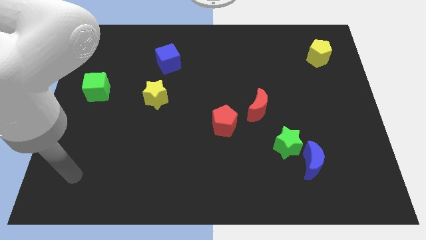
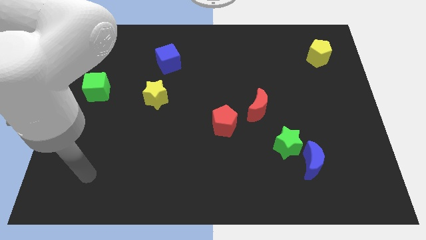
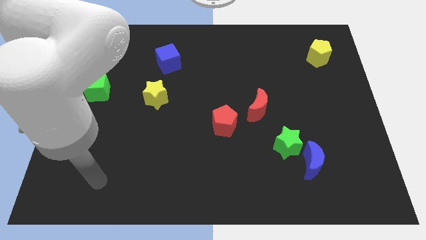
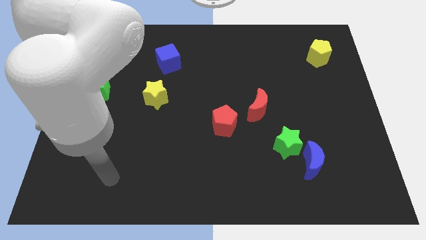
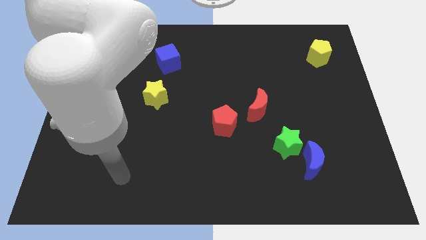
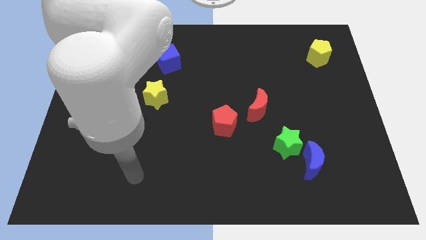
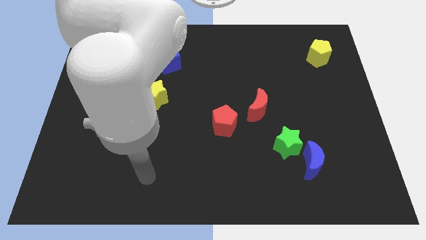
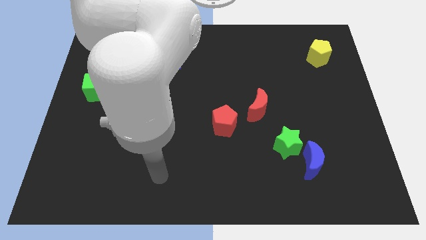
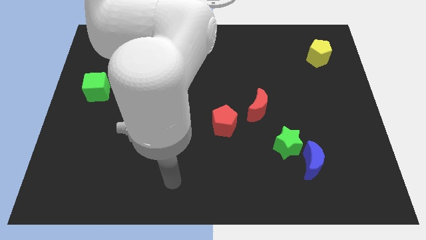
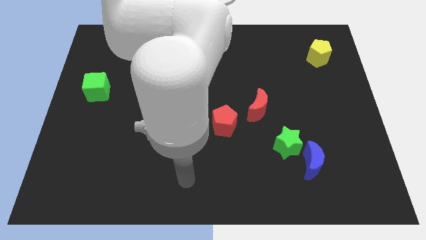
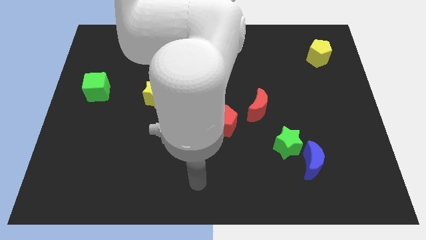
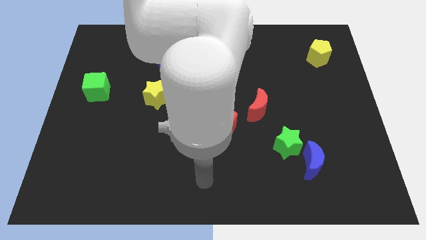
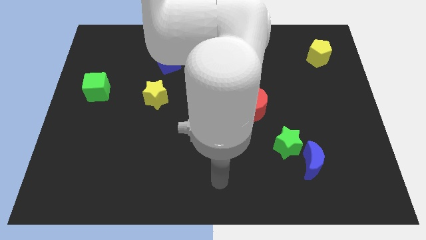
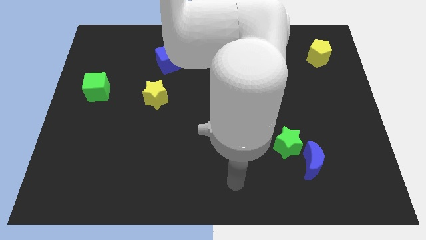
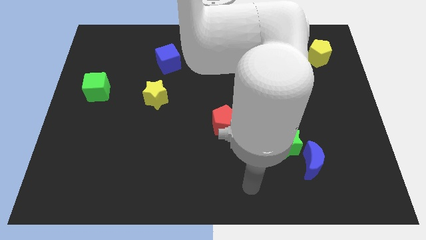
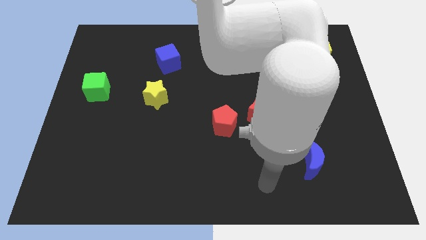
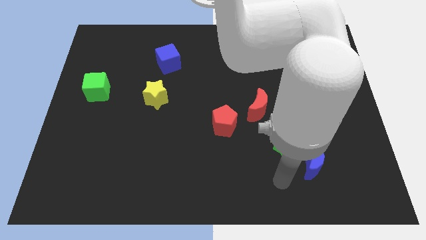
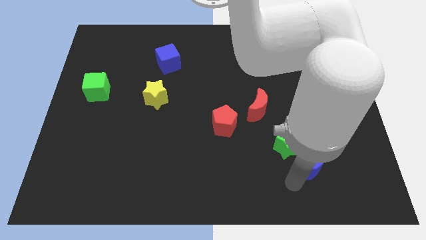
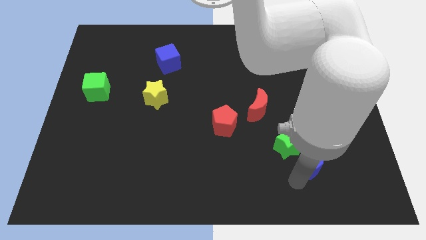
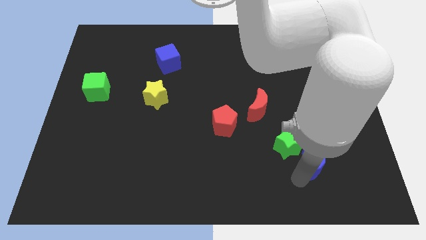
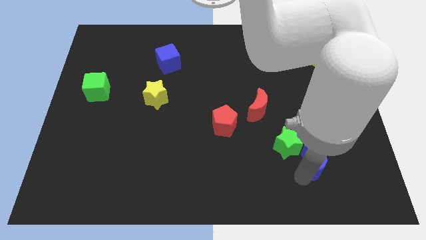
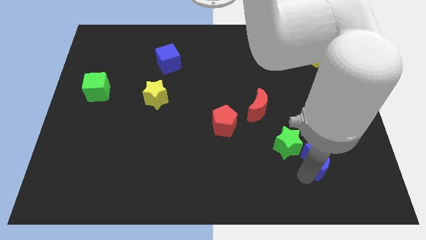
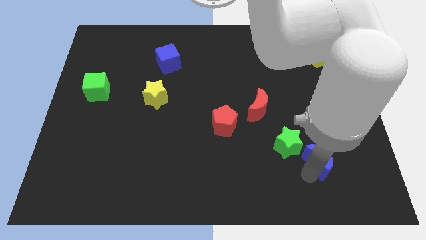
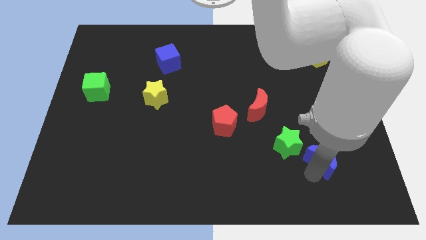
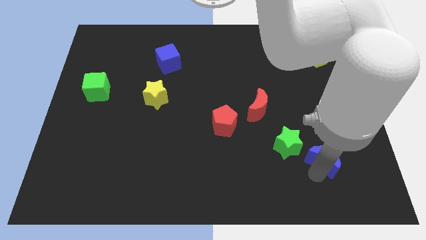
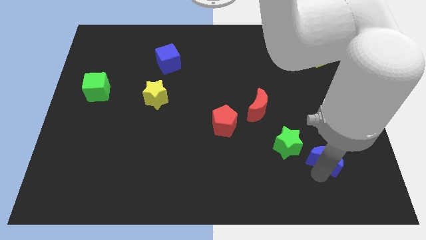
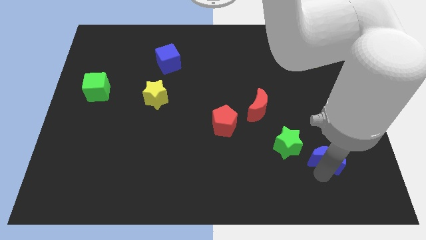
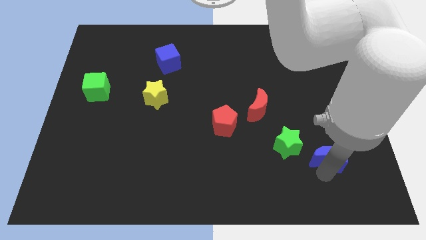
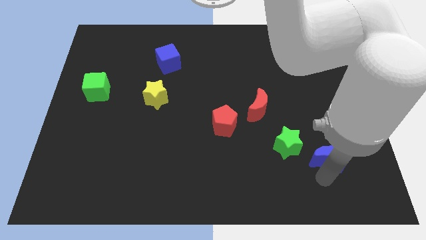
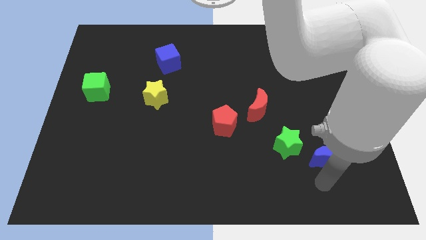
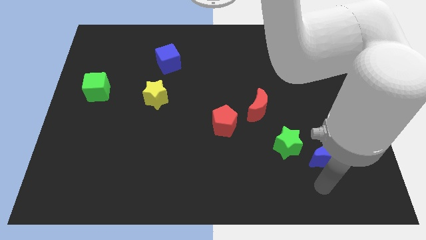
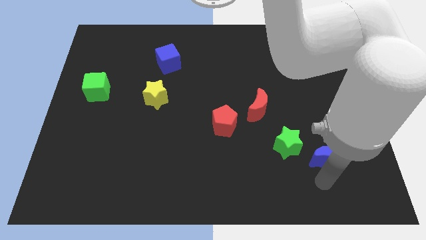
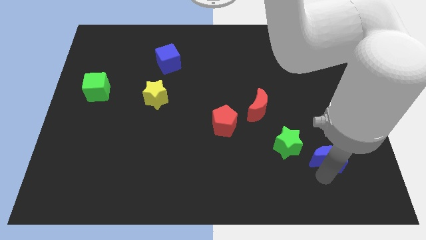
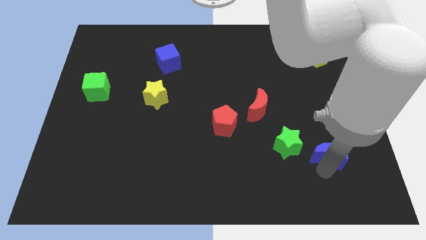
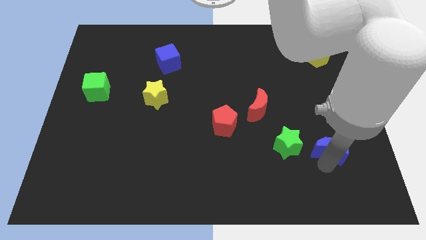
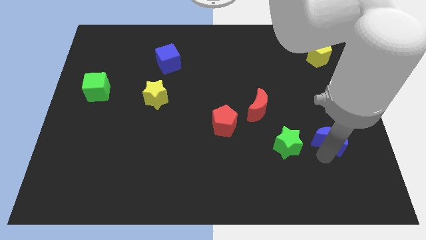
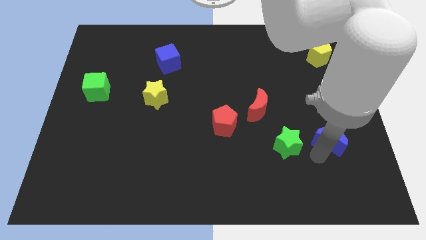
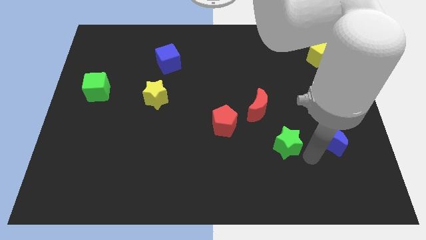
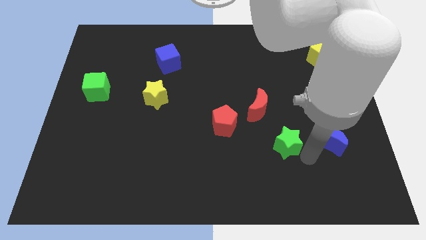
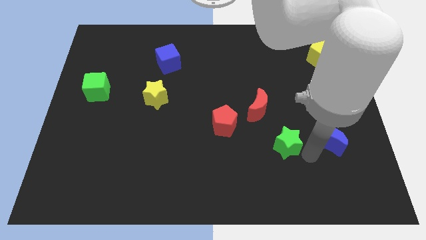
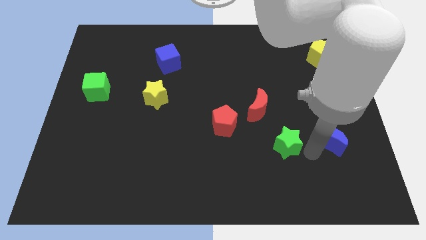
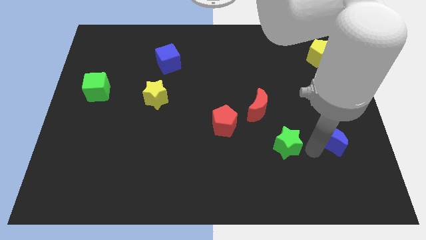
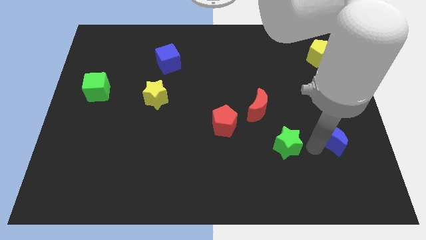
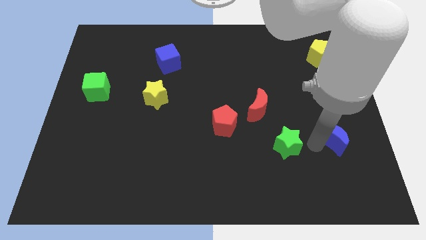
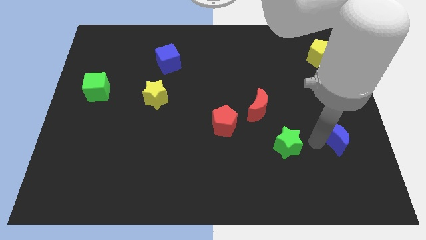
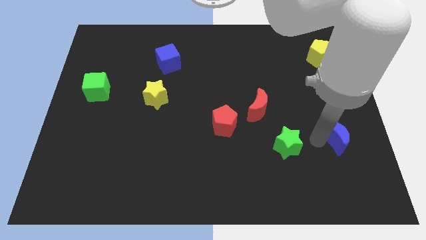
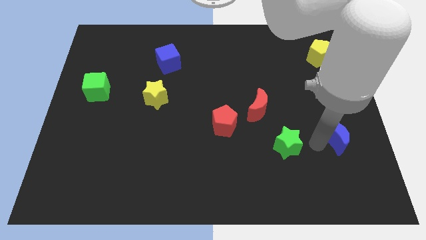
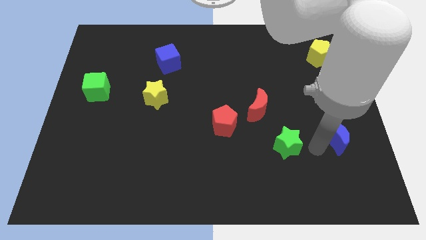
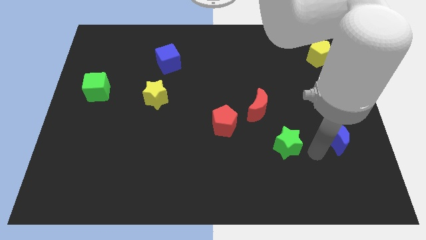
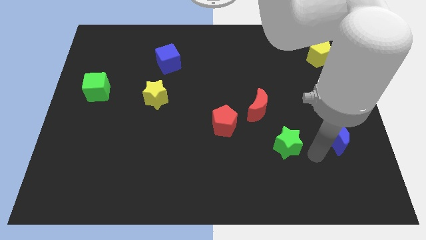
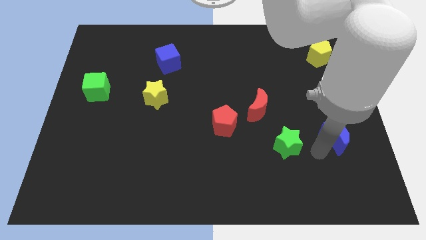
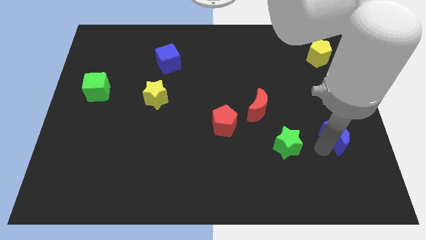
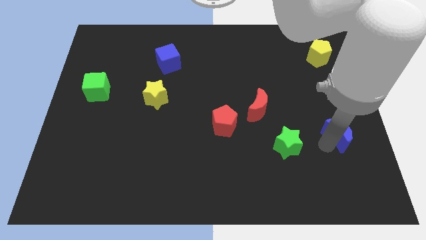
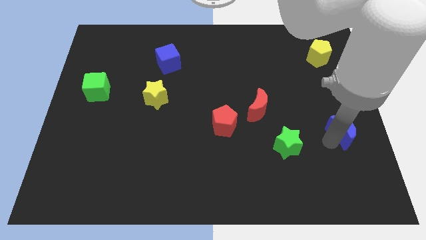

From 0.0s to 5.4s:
slide the blue moon to the right side

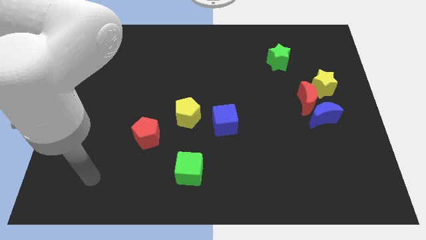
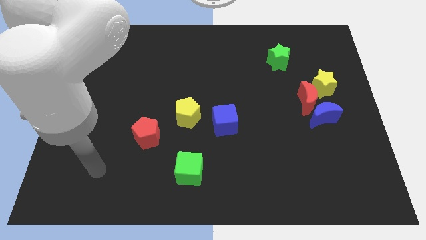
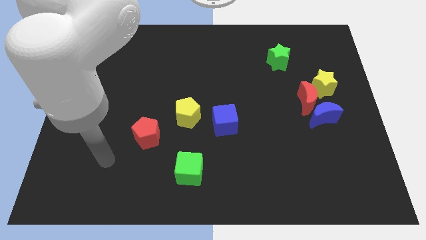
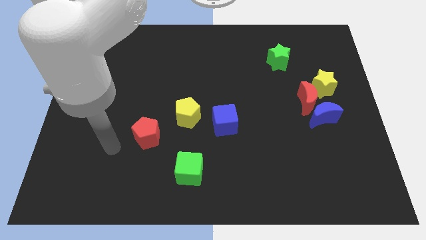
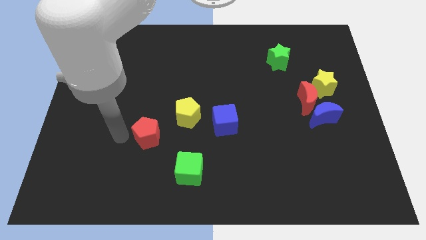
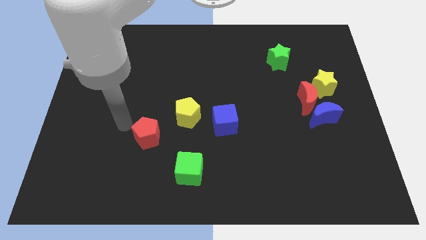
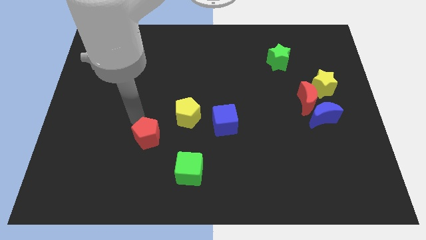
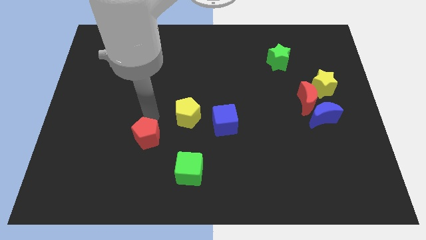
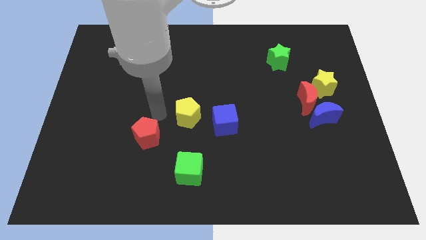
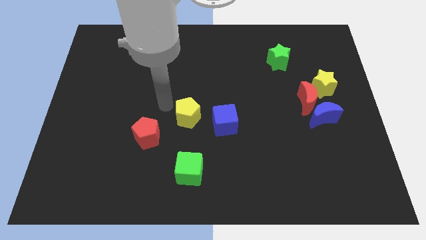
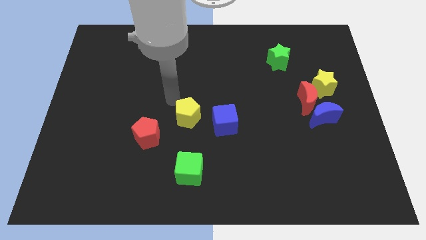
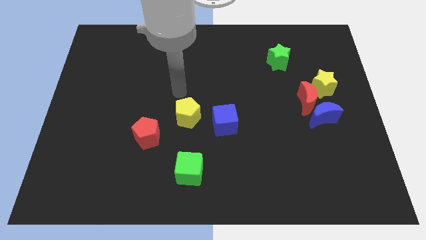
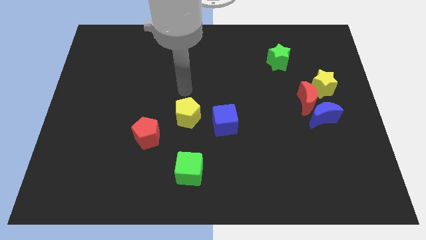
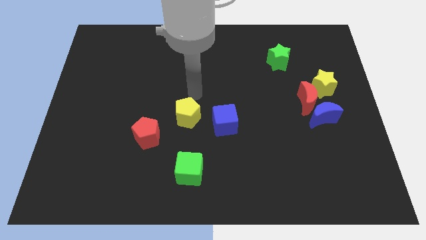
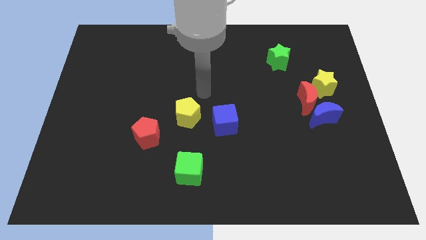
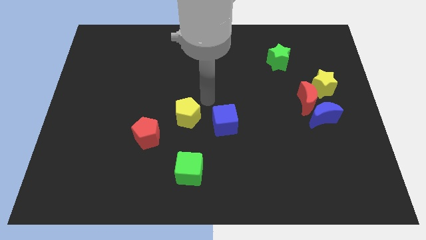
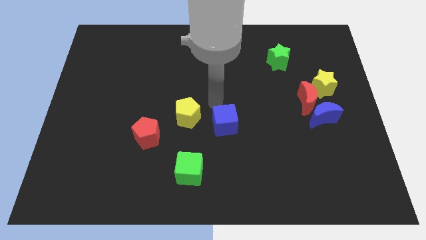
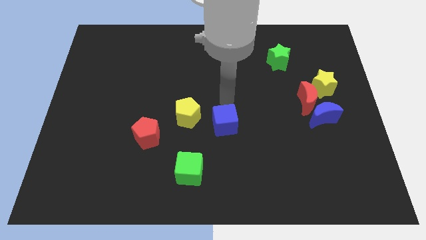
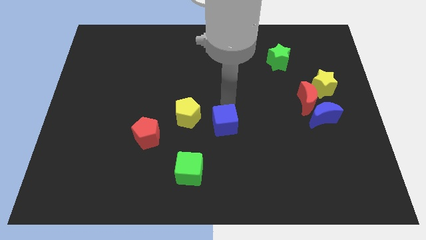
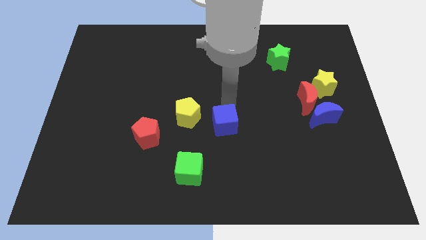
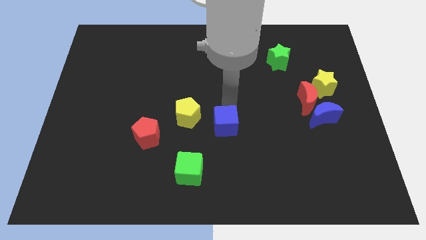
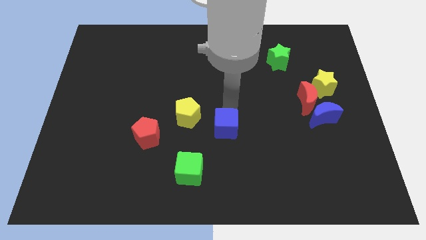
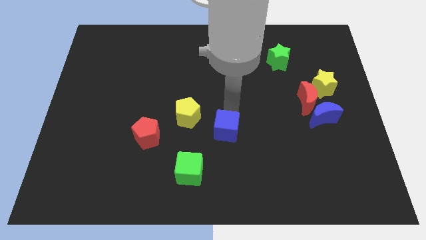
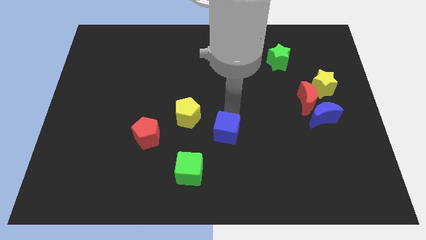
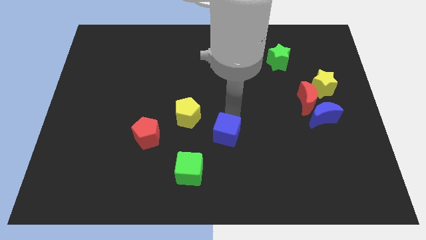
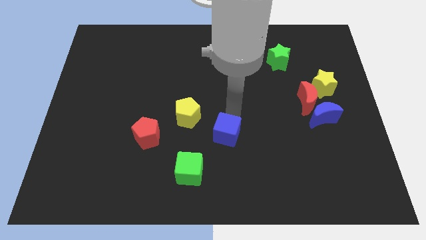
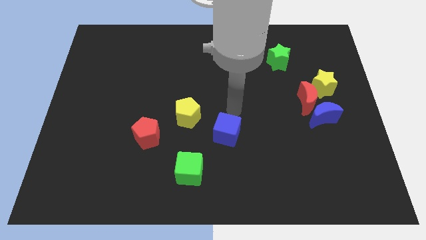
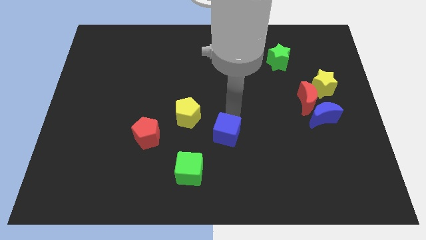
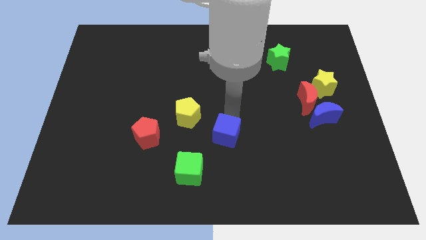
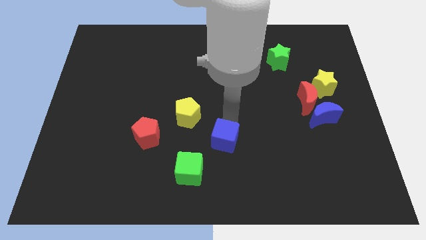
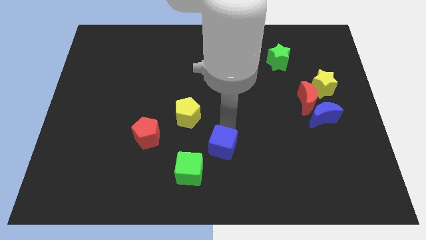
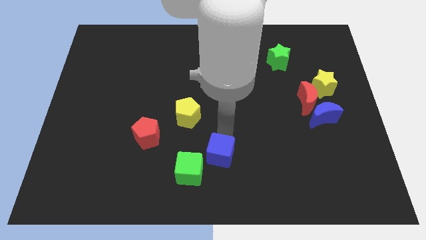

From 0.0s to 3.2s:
slide the blue cube to the bottom side
